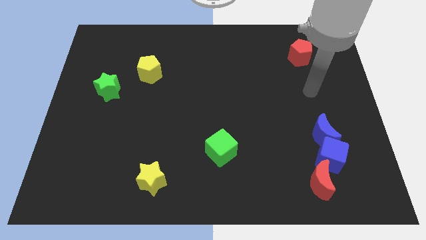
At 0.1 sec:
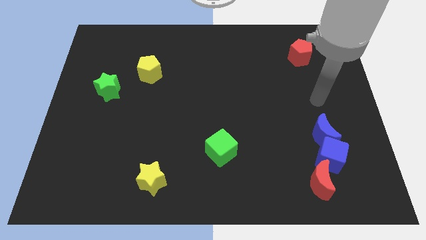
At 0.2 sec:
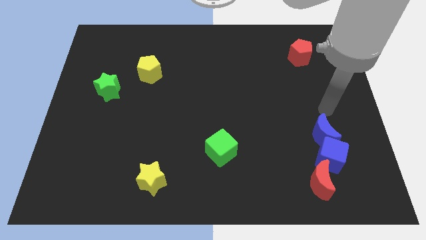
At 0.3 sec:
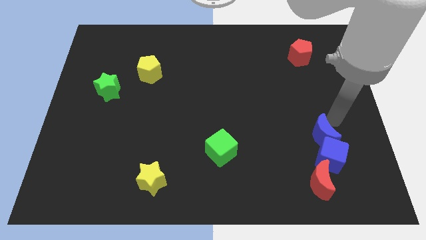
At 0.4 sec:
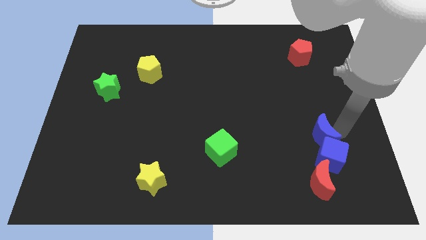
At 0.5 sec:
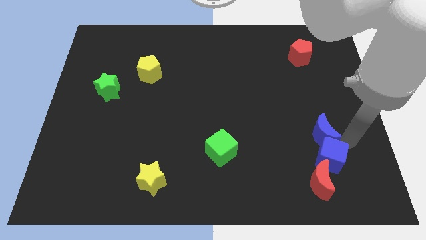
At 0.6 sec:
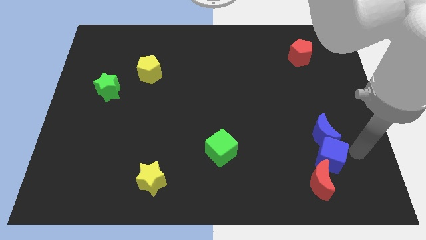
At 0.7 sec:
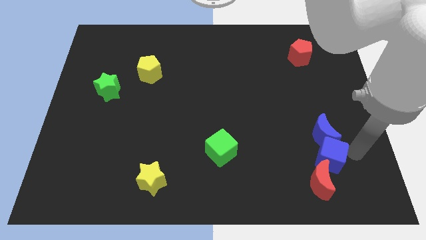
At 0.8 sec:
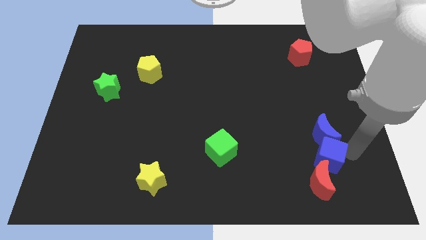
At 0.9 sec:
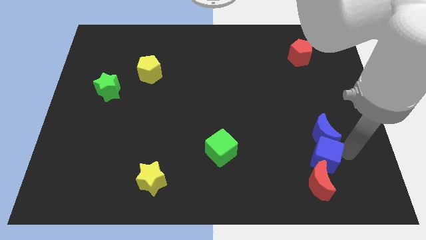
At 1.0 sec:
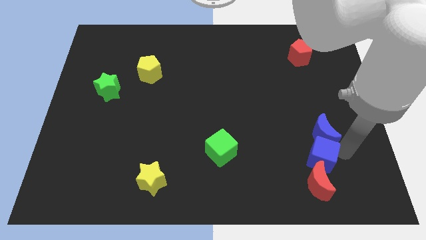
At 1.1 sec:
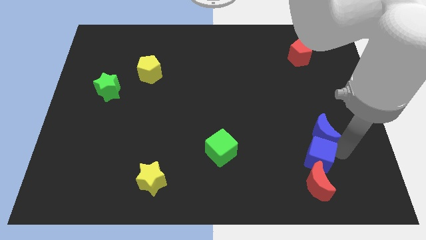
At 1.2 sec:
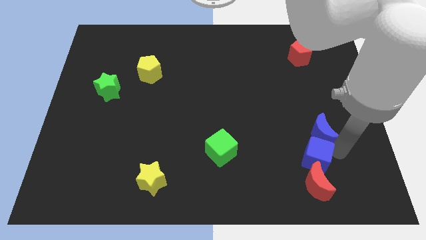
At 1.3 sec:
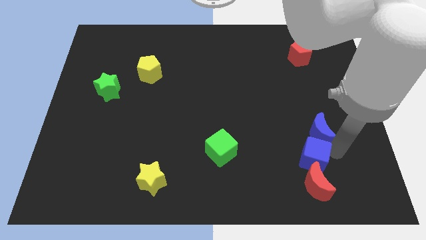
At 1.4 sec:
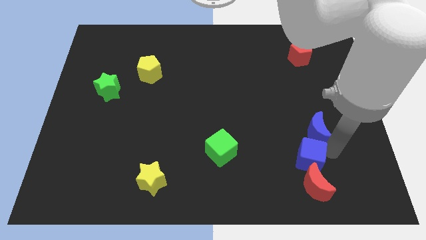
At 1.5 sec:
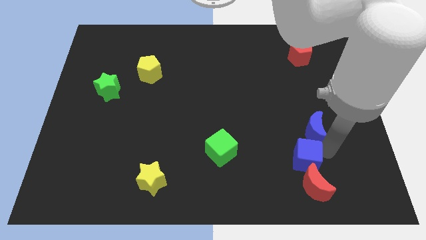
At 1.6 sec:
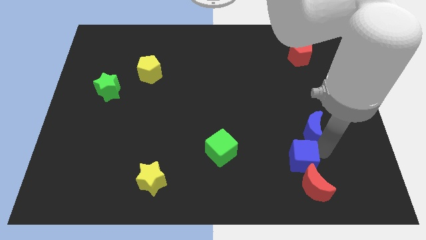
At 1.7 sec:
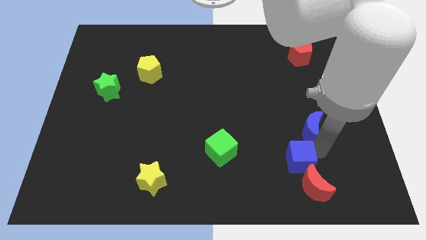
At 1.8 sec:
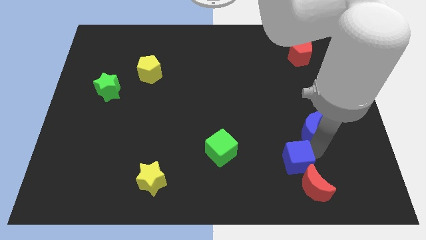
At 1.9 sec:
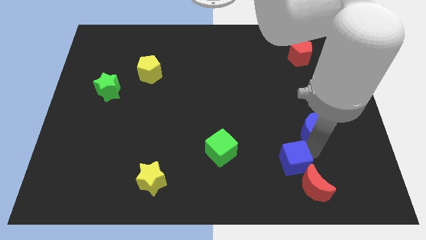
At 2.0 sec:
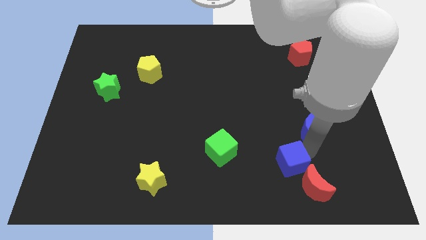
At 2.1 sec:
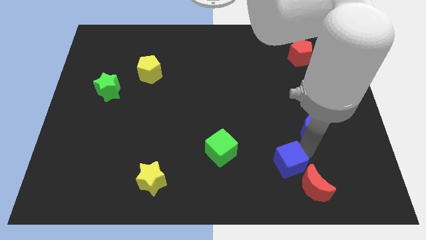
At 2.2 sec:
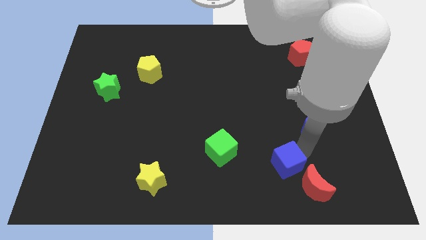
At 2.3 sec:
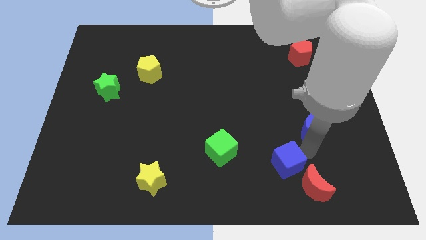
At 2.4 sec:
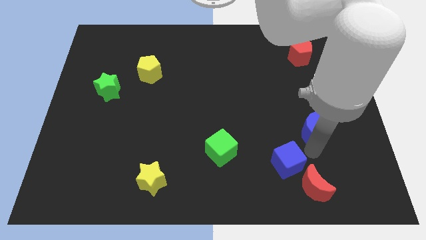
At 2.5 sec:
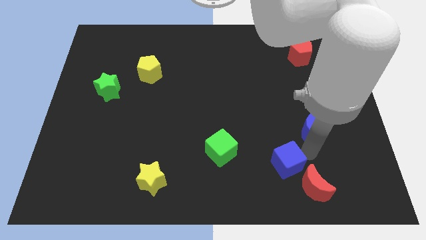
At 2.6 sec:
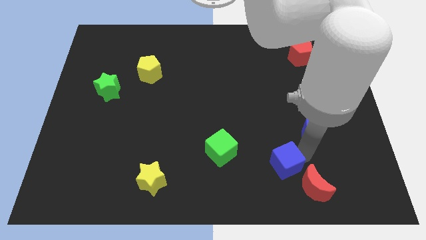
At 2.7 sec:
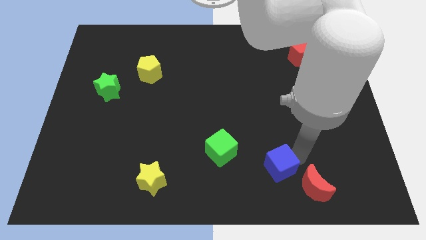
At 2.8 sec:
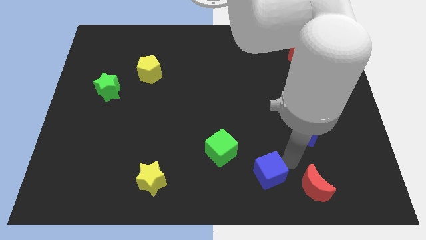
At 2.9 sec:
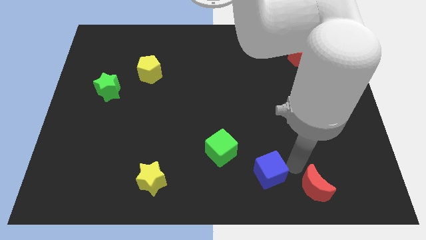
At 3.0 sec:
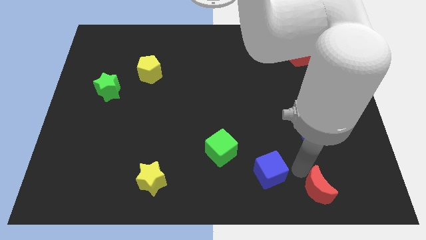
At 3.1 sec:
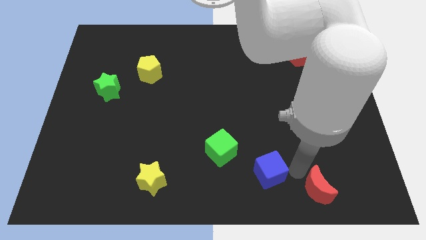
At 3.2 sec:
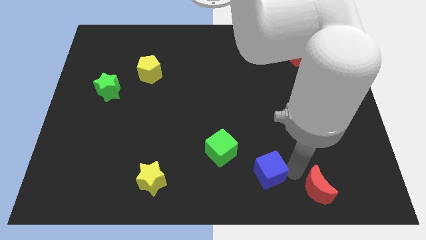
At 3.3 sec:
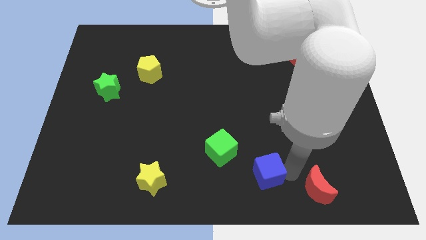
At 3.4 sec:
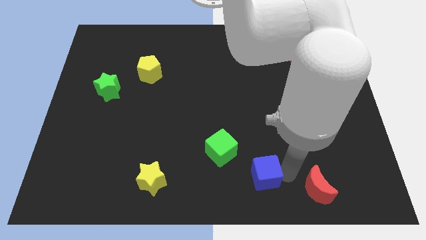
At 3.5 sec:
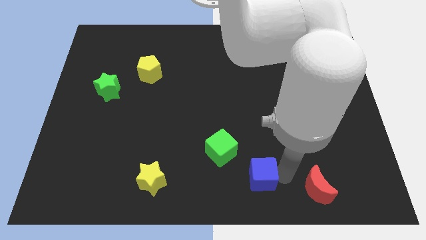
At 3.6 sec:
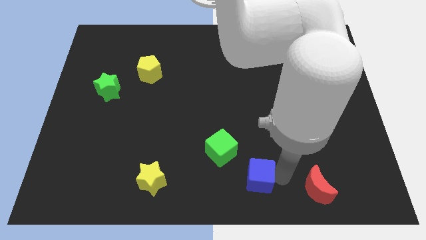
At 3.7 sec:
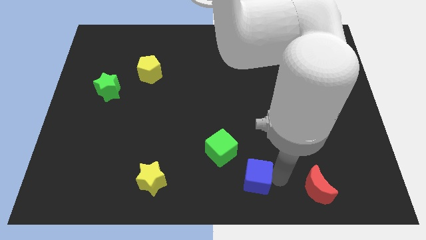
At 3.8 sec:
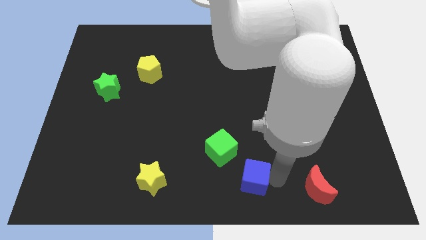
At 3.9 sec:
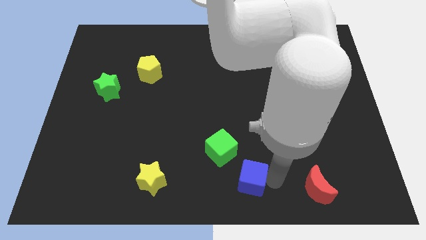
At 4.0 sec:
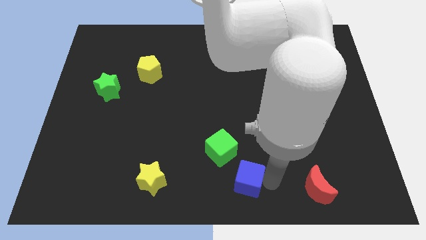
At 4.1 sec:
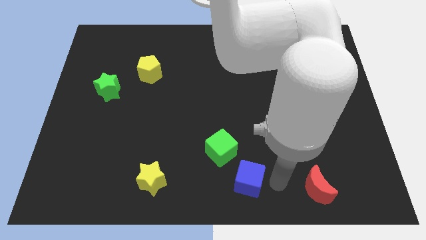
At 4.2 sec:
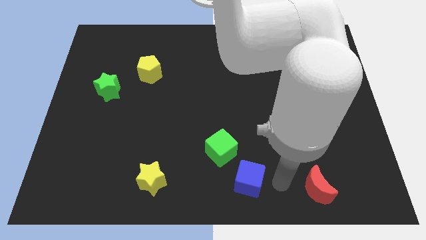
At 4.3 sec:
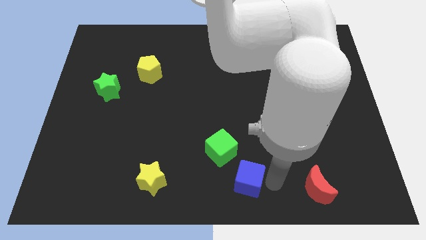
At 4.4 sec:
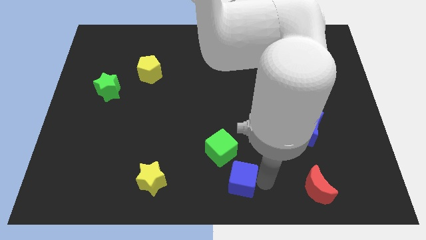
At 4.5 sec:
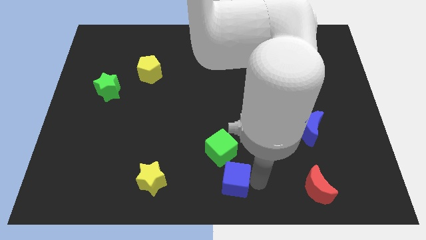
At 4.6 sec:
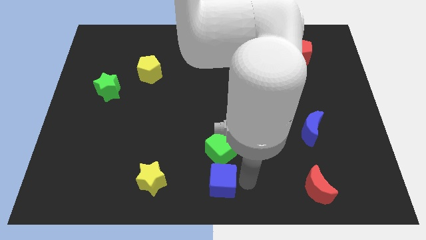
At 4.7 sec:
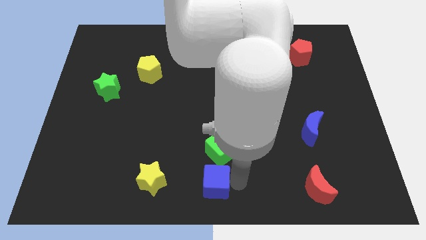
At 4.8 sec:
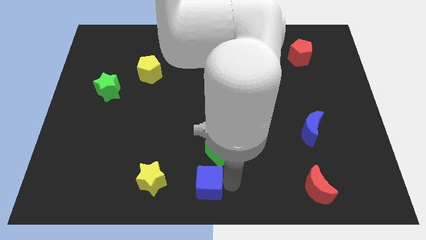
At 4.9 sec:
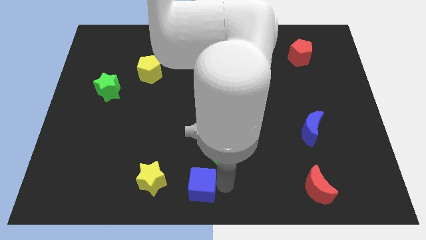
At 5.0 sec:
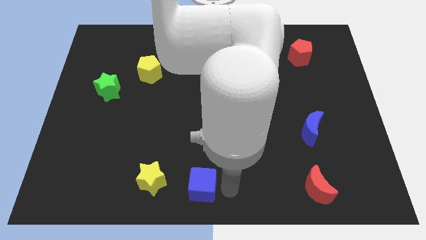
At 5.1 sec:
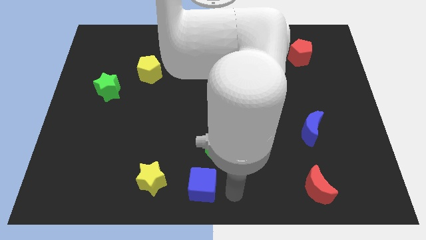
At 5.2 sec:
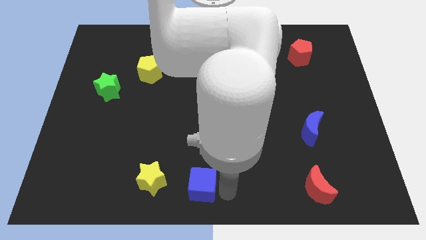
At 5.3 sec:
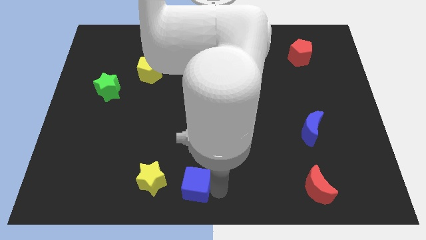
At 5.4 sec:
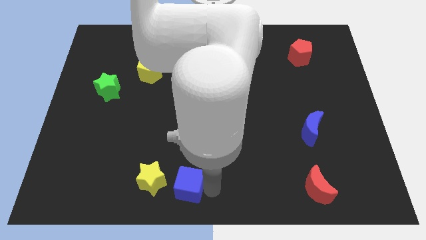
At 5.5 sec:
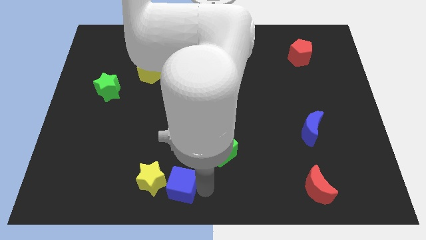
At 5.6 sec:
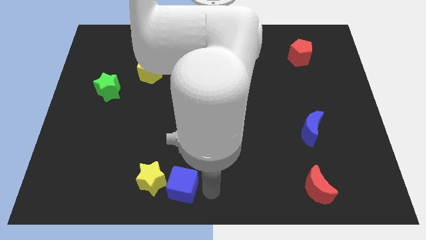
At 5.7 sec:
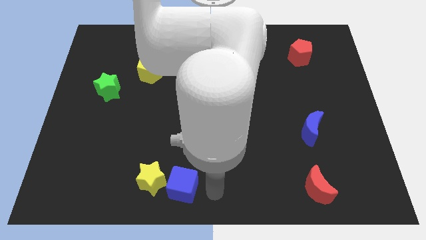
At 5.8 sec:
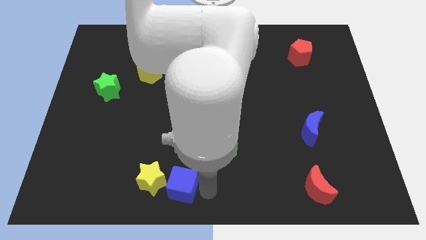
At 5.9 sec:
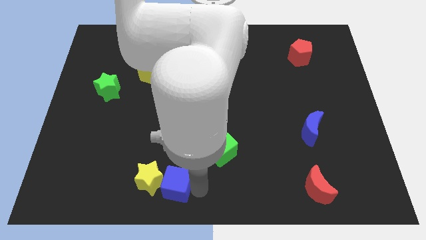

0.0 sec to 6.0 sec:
put the blue cube to the yellow star

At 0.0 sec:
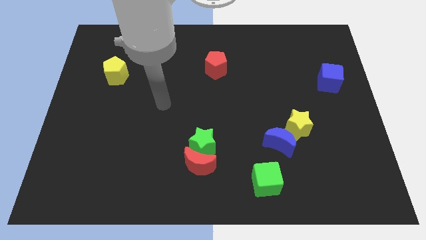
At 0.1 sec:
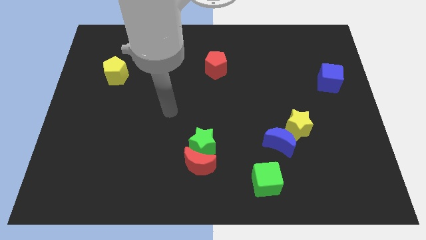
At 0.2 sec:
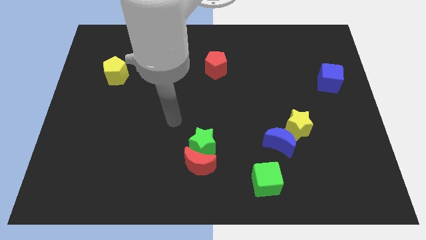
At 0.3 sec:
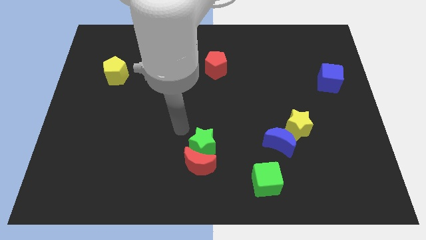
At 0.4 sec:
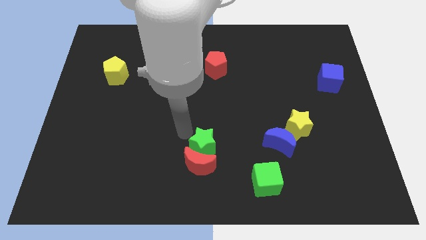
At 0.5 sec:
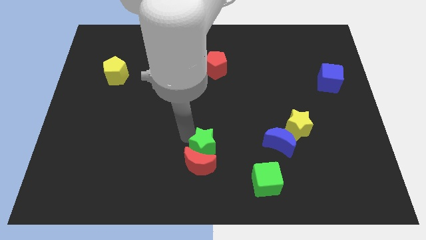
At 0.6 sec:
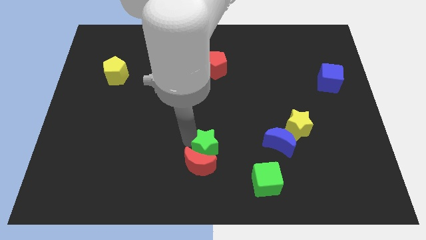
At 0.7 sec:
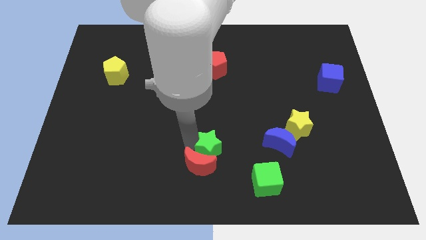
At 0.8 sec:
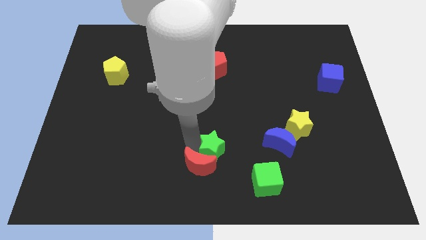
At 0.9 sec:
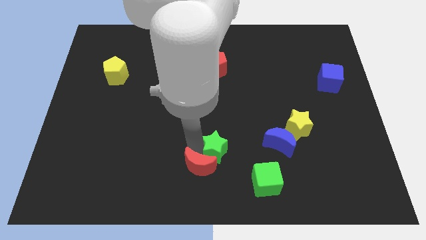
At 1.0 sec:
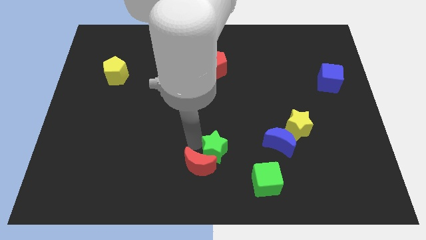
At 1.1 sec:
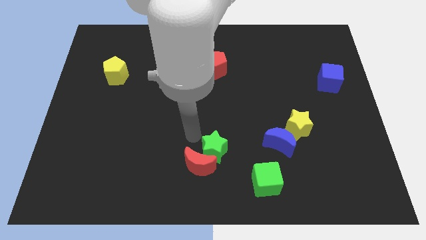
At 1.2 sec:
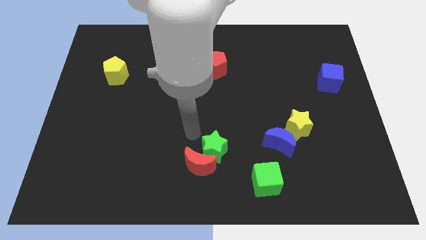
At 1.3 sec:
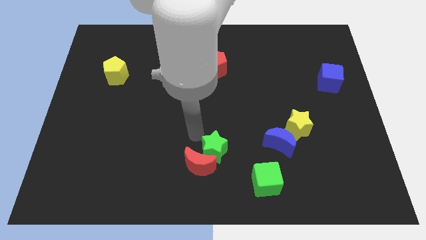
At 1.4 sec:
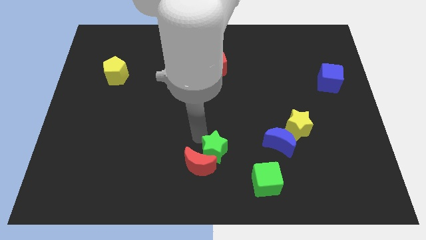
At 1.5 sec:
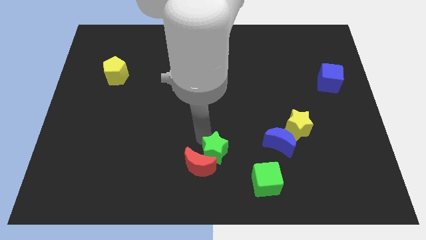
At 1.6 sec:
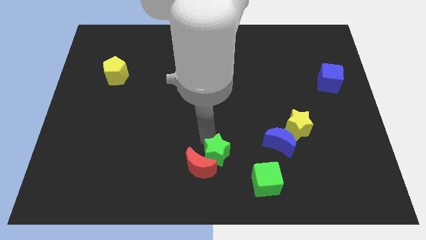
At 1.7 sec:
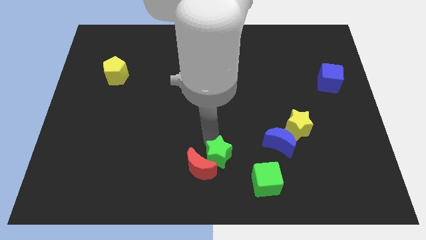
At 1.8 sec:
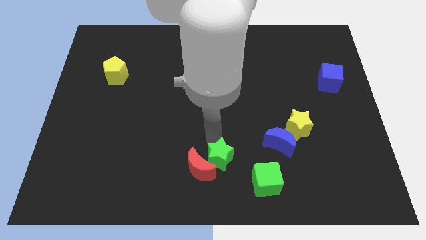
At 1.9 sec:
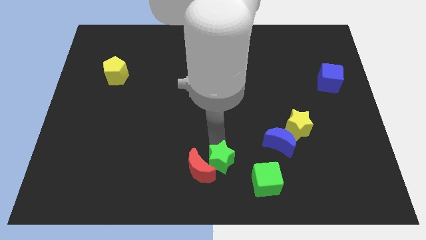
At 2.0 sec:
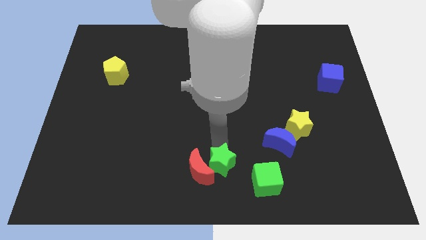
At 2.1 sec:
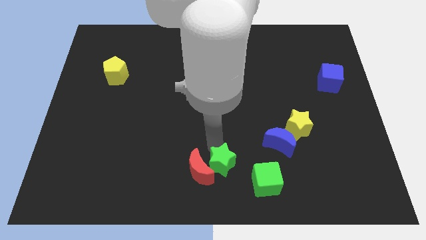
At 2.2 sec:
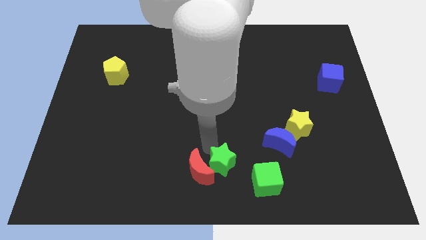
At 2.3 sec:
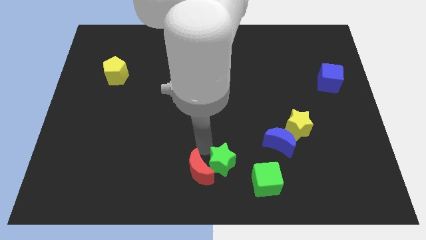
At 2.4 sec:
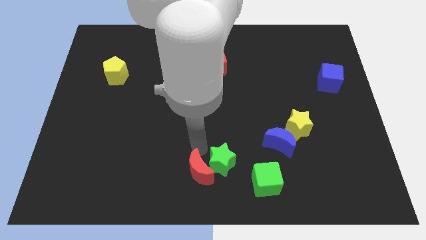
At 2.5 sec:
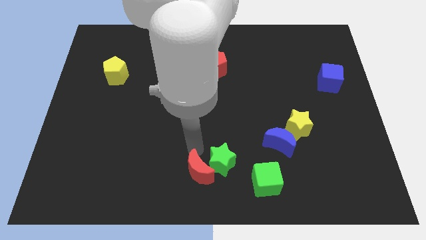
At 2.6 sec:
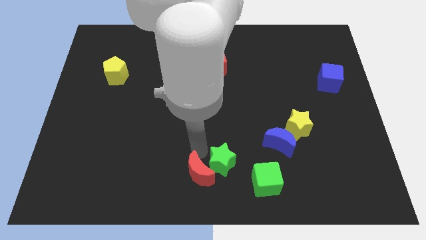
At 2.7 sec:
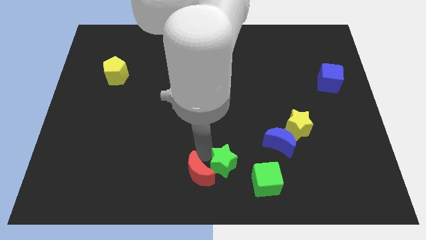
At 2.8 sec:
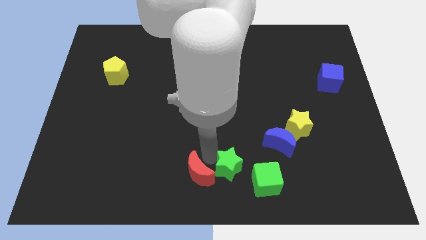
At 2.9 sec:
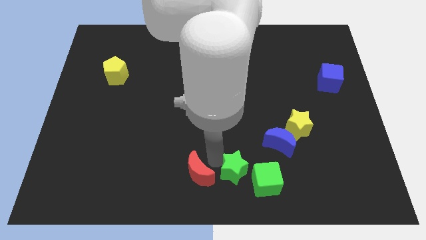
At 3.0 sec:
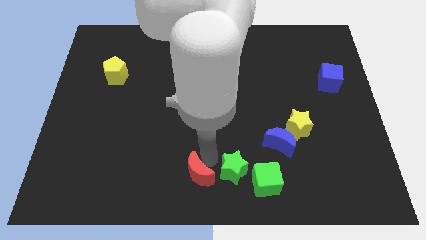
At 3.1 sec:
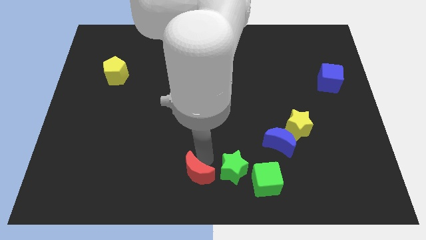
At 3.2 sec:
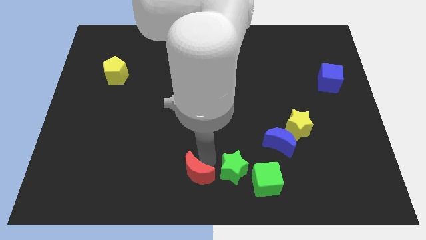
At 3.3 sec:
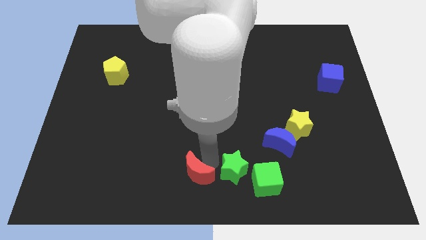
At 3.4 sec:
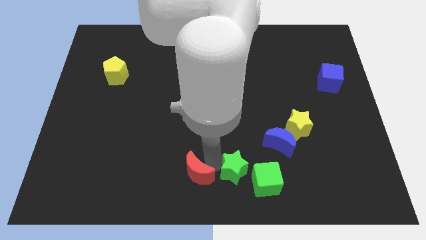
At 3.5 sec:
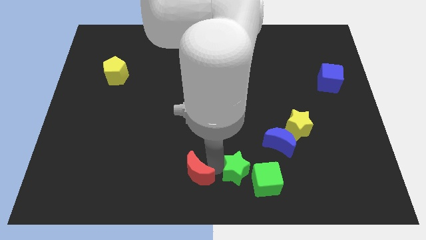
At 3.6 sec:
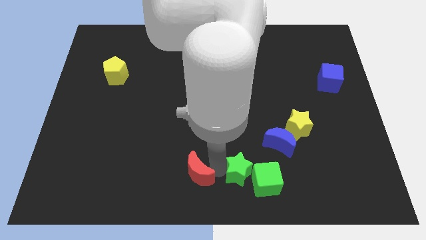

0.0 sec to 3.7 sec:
slide the green star next to the green cube
